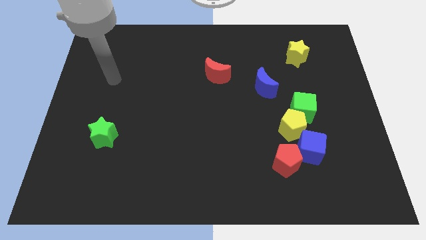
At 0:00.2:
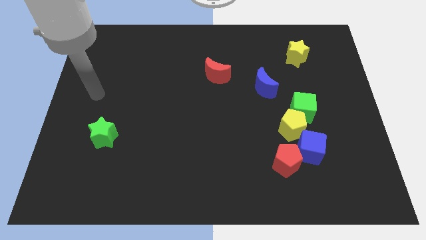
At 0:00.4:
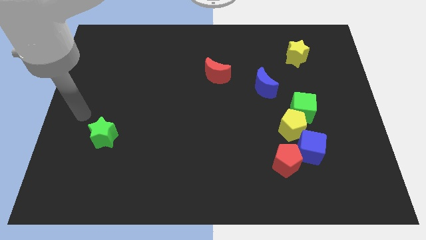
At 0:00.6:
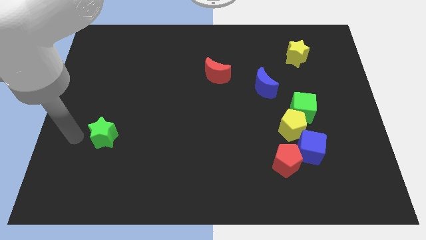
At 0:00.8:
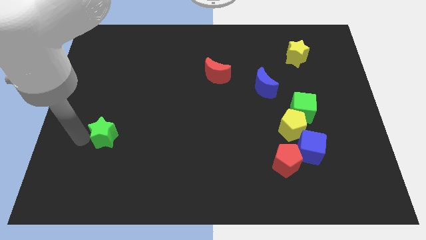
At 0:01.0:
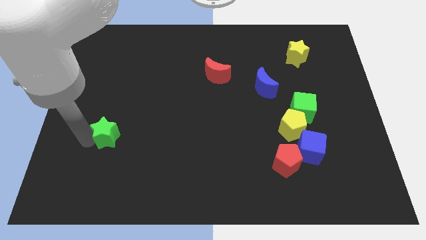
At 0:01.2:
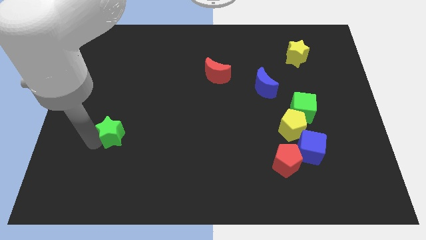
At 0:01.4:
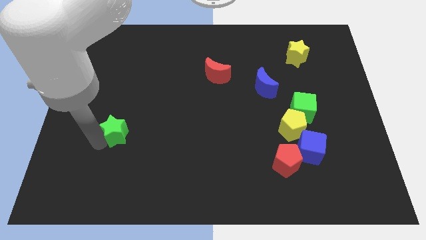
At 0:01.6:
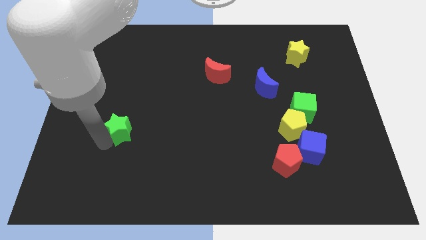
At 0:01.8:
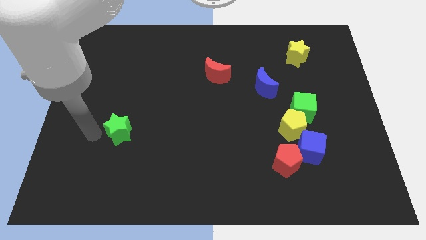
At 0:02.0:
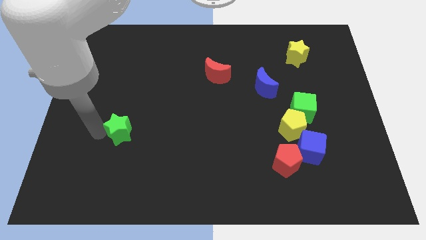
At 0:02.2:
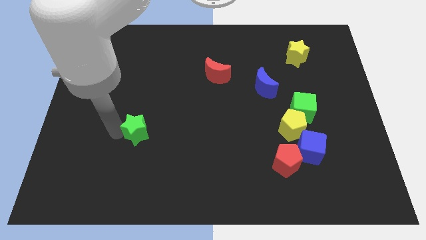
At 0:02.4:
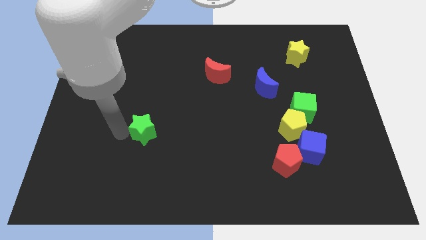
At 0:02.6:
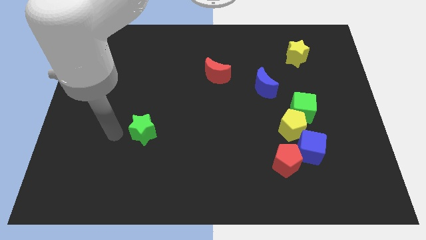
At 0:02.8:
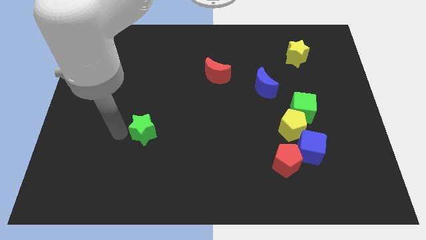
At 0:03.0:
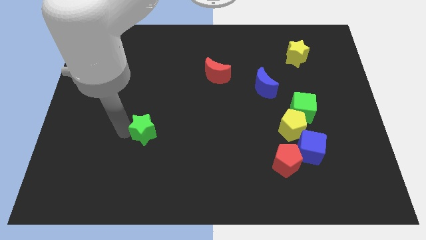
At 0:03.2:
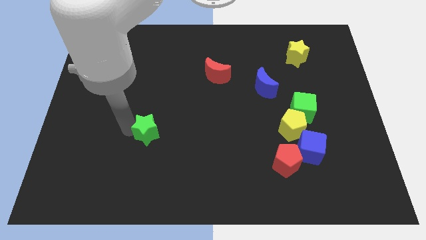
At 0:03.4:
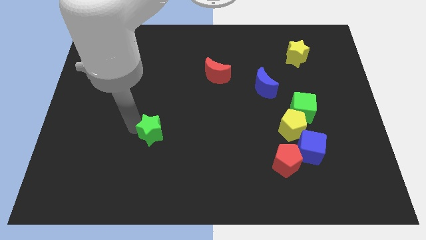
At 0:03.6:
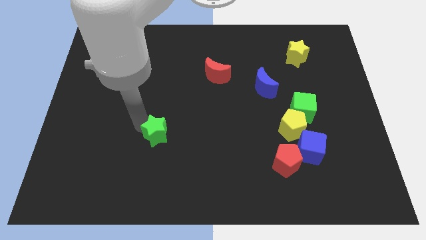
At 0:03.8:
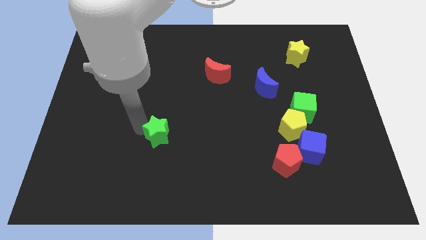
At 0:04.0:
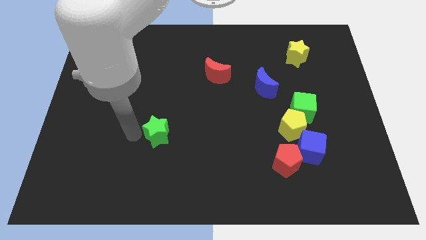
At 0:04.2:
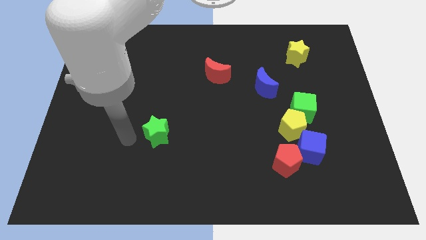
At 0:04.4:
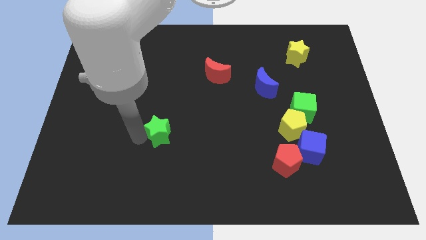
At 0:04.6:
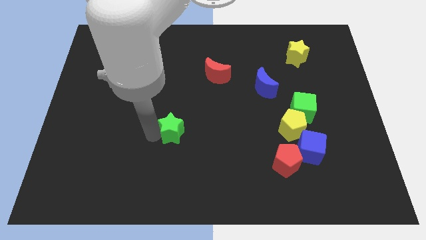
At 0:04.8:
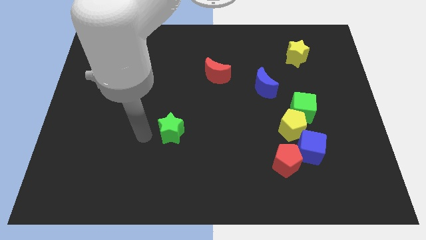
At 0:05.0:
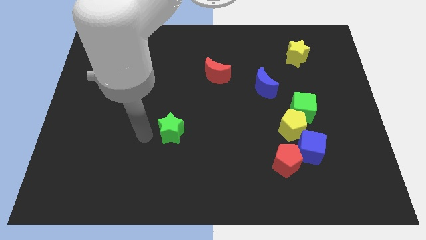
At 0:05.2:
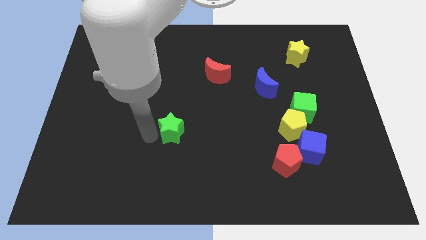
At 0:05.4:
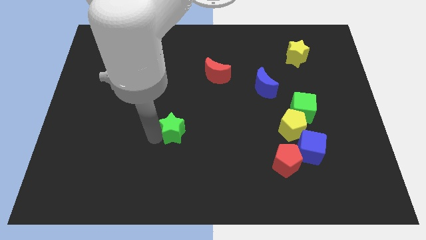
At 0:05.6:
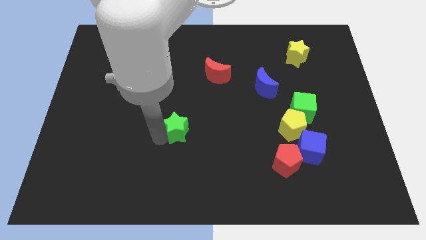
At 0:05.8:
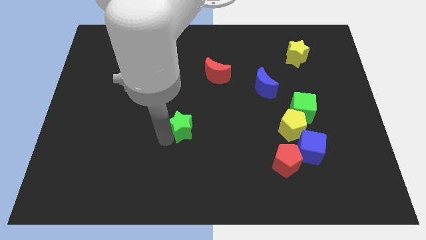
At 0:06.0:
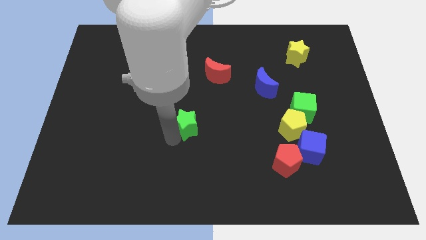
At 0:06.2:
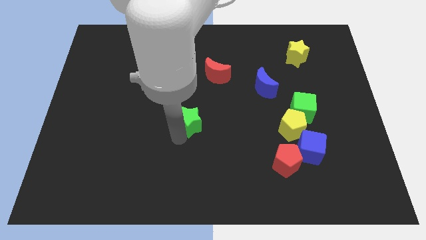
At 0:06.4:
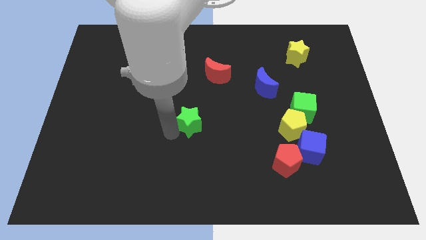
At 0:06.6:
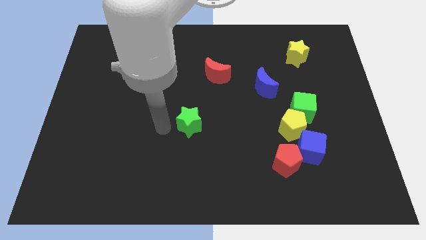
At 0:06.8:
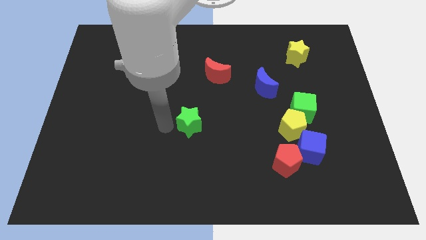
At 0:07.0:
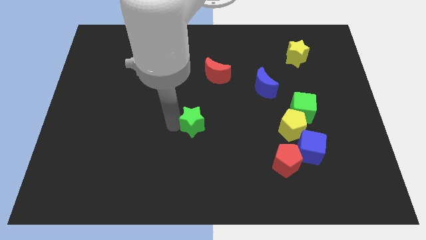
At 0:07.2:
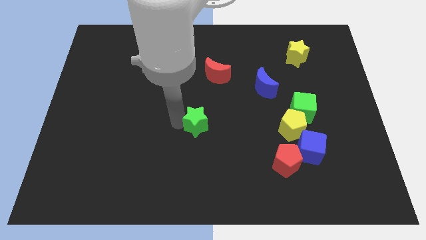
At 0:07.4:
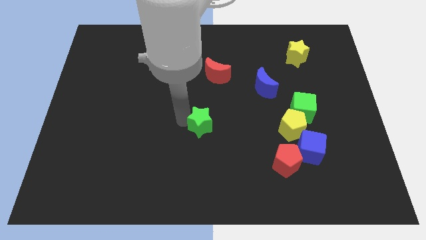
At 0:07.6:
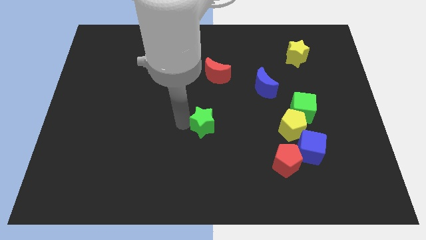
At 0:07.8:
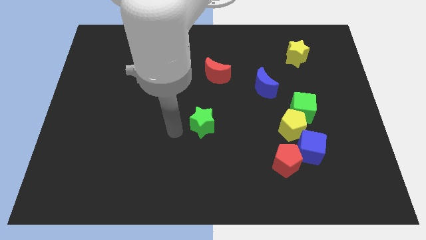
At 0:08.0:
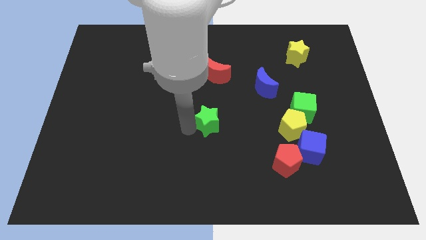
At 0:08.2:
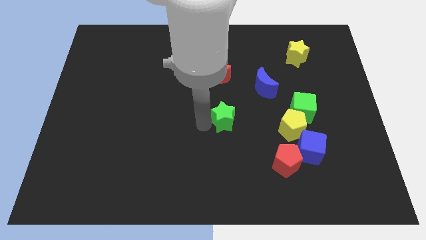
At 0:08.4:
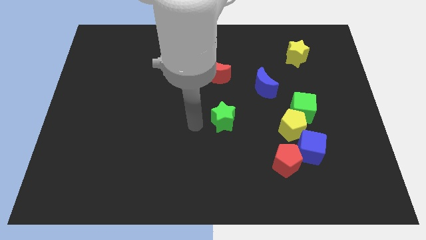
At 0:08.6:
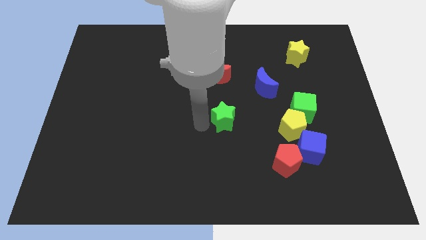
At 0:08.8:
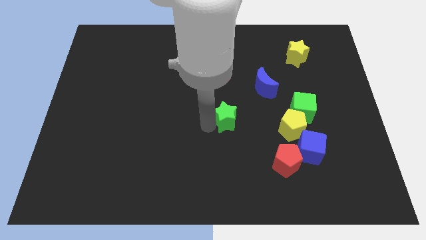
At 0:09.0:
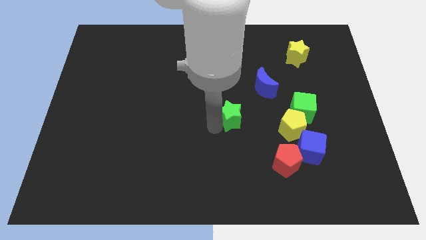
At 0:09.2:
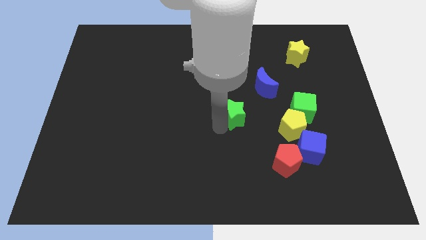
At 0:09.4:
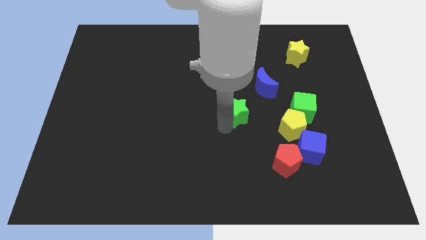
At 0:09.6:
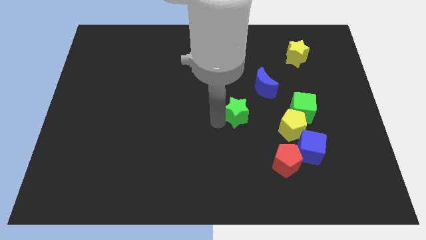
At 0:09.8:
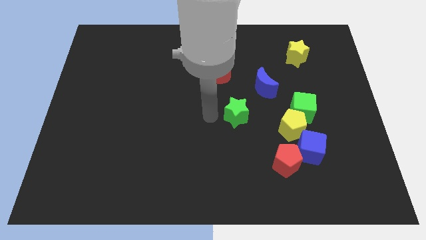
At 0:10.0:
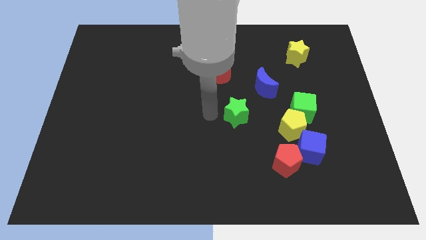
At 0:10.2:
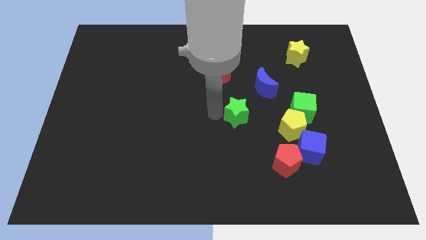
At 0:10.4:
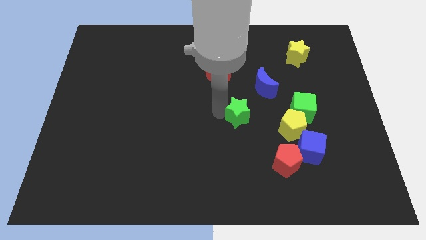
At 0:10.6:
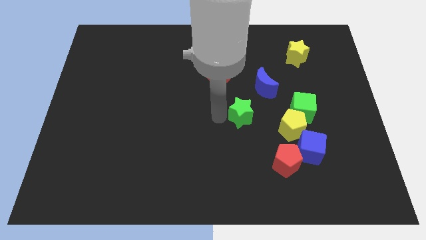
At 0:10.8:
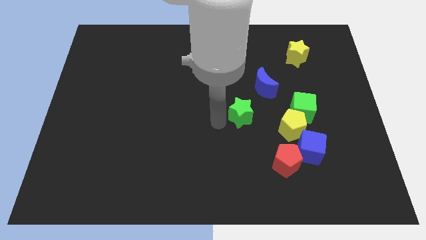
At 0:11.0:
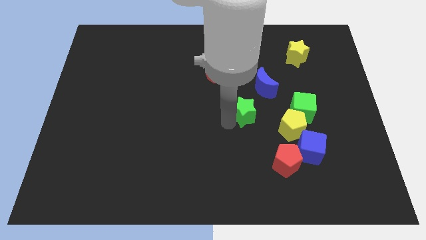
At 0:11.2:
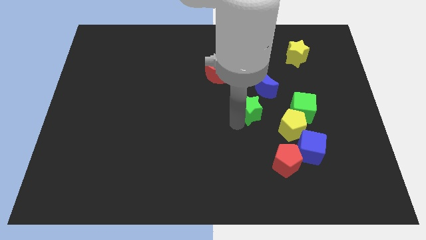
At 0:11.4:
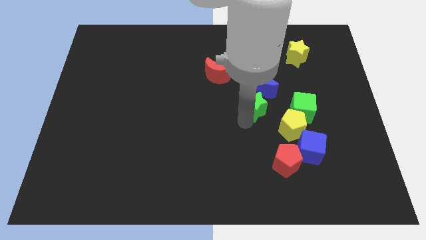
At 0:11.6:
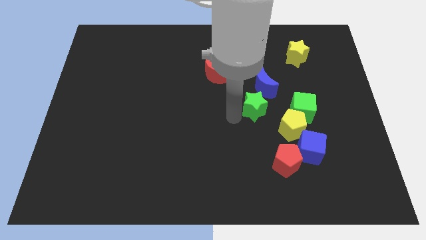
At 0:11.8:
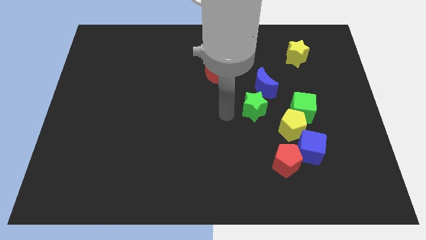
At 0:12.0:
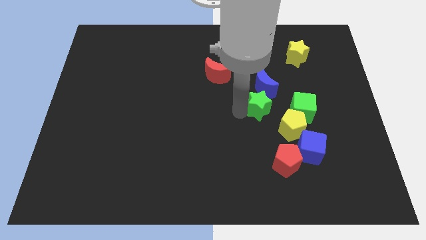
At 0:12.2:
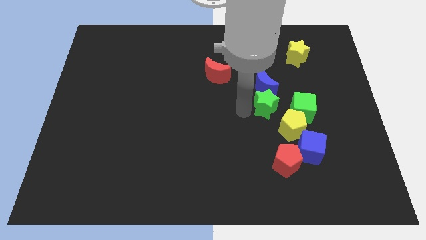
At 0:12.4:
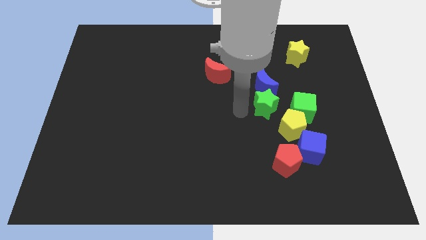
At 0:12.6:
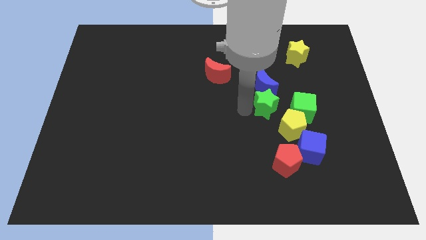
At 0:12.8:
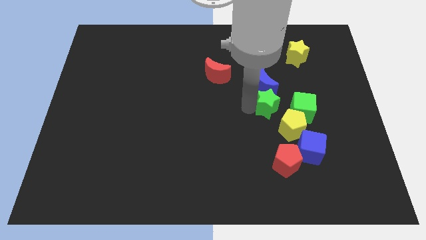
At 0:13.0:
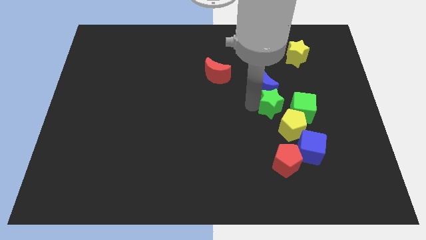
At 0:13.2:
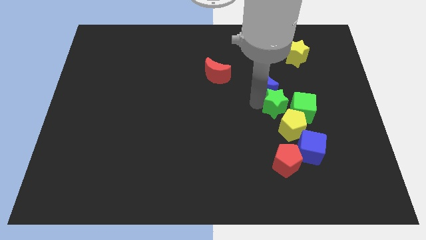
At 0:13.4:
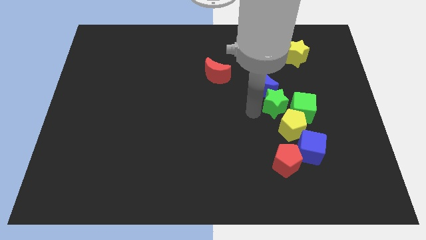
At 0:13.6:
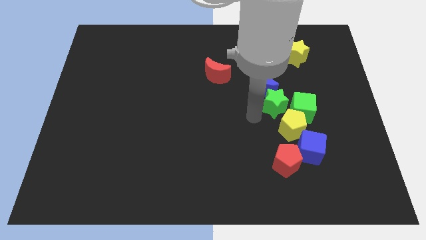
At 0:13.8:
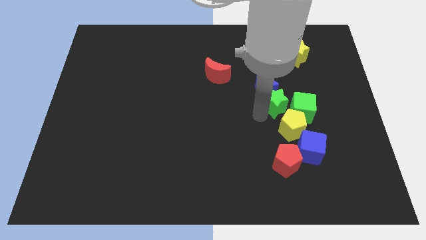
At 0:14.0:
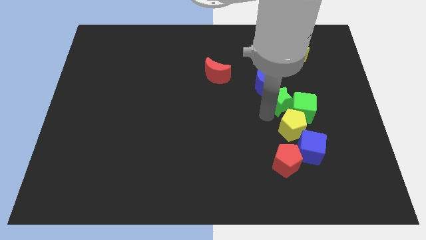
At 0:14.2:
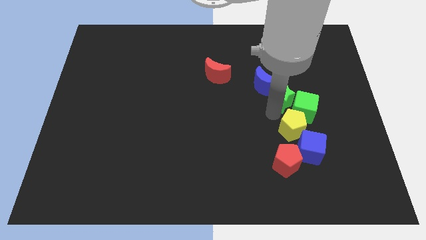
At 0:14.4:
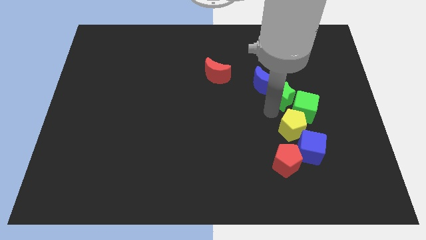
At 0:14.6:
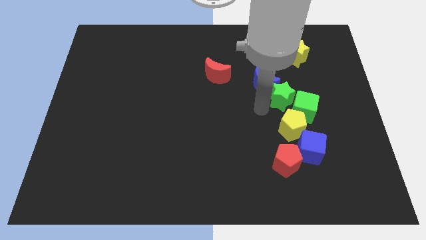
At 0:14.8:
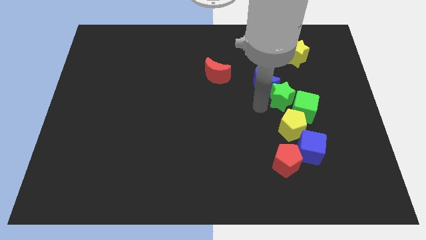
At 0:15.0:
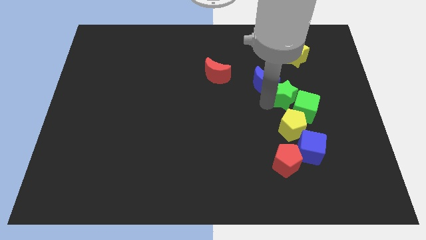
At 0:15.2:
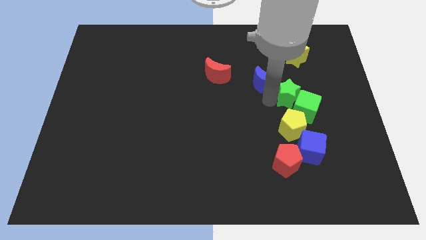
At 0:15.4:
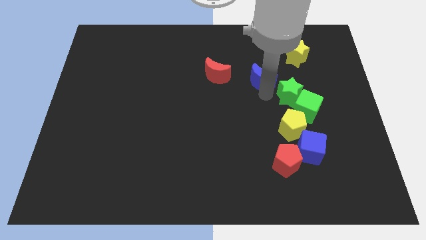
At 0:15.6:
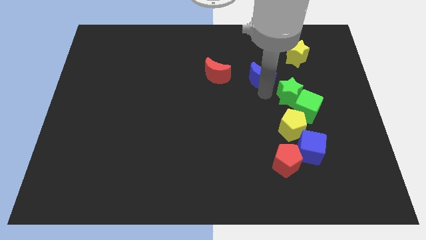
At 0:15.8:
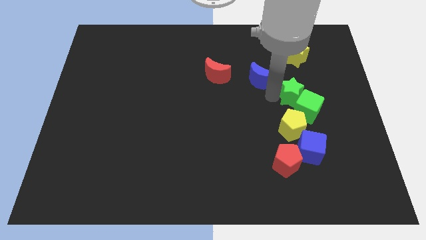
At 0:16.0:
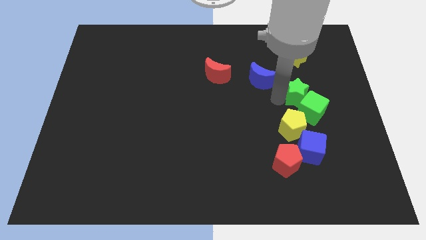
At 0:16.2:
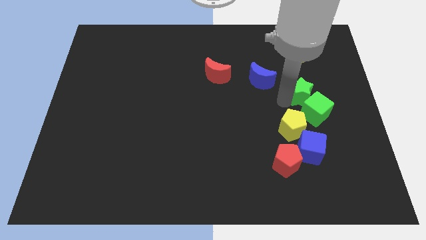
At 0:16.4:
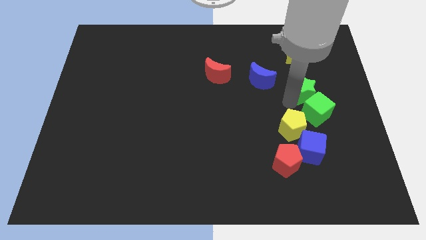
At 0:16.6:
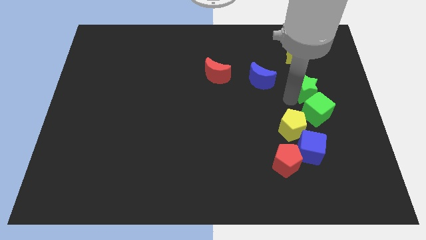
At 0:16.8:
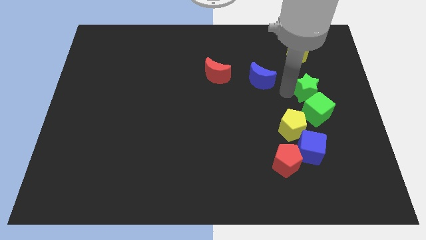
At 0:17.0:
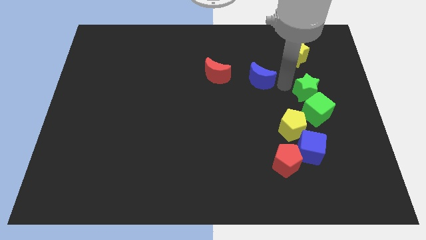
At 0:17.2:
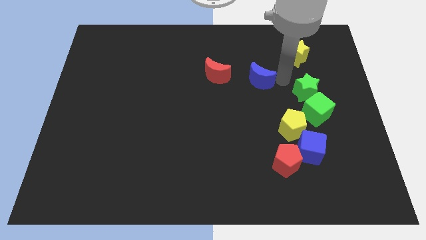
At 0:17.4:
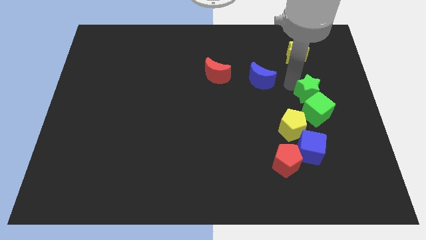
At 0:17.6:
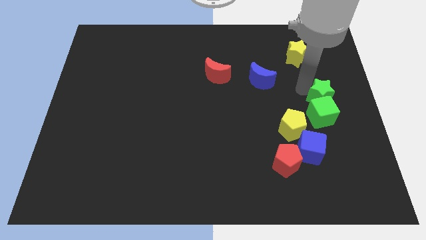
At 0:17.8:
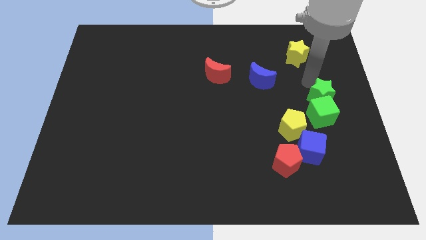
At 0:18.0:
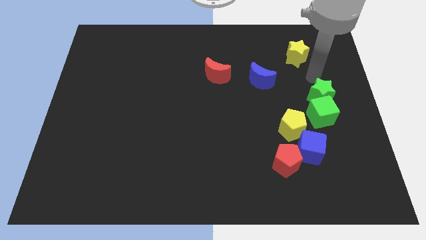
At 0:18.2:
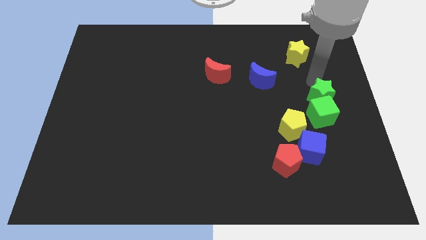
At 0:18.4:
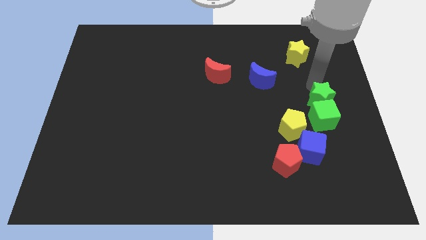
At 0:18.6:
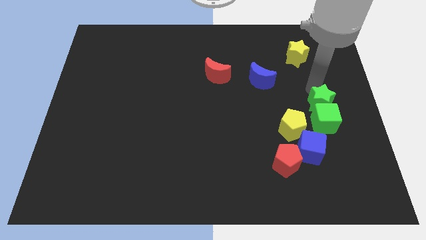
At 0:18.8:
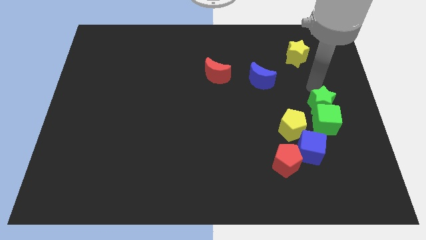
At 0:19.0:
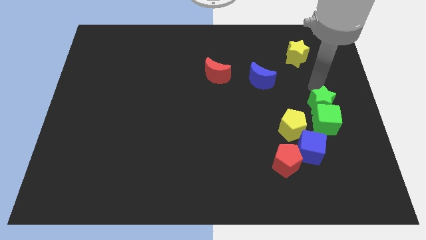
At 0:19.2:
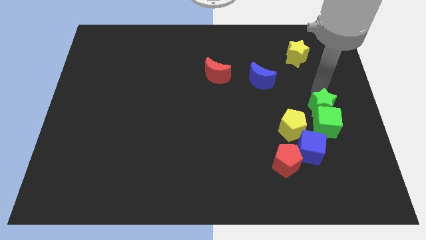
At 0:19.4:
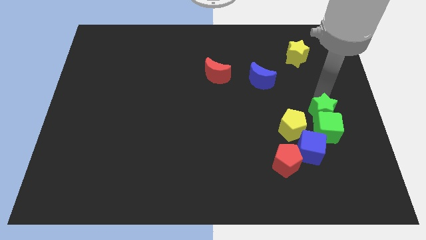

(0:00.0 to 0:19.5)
put the green star to the top right side of the blue cube
